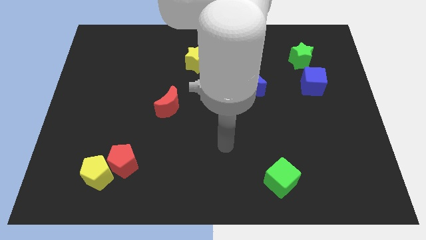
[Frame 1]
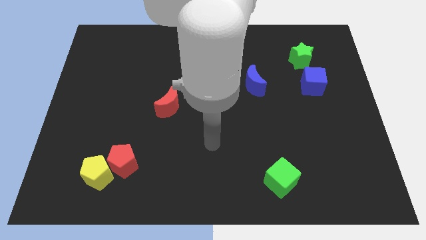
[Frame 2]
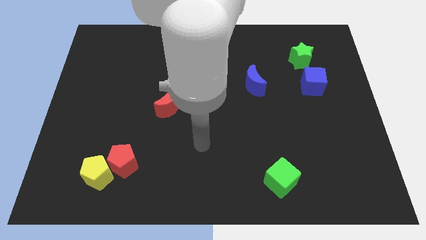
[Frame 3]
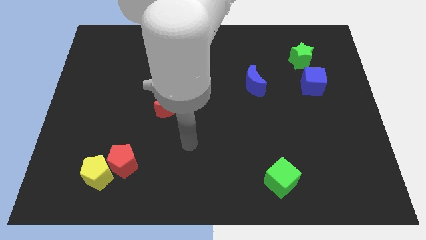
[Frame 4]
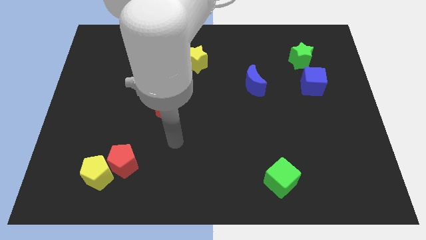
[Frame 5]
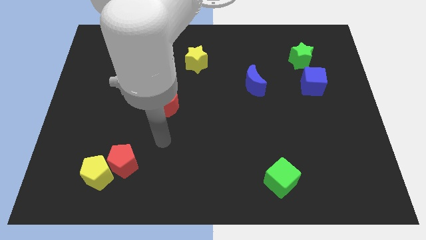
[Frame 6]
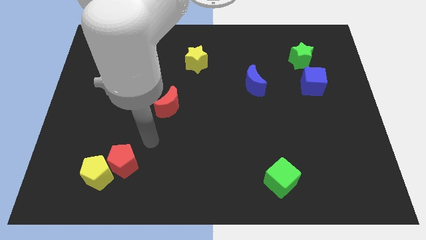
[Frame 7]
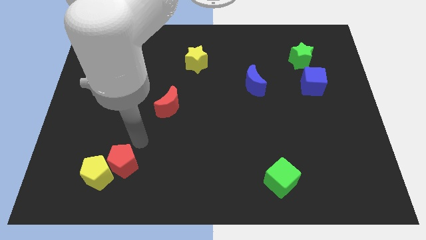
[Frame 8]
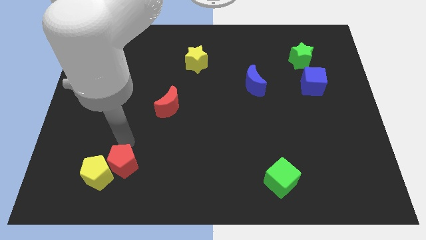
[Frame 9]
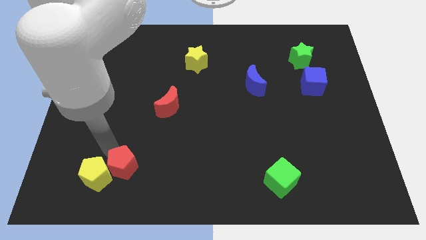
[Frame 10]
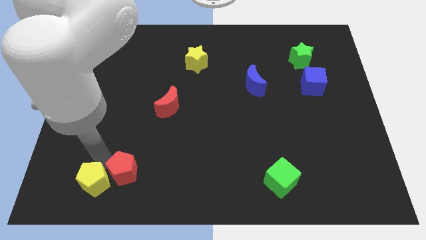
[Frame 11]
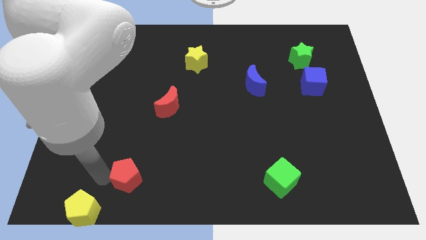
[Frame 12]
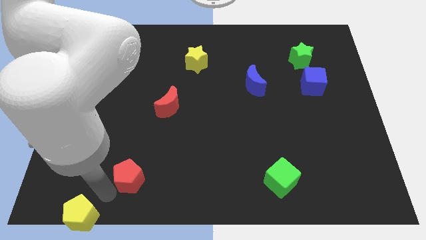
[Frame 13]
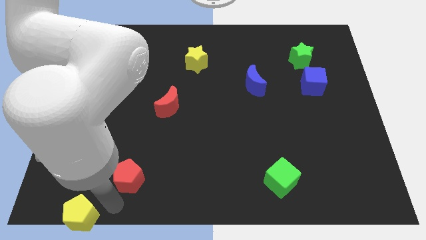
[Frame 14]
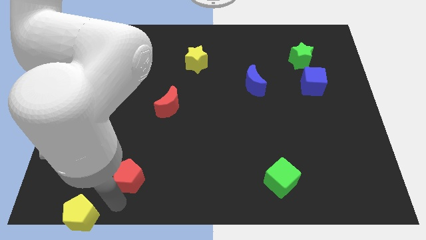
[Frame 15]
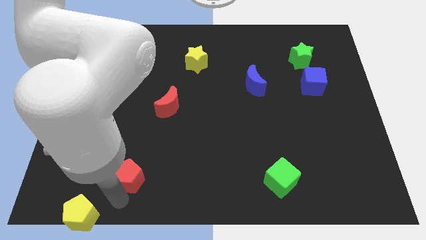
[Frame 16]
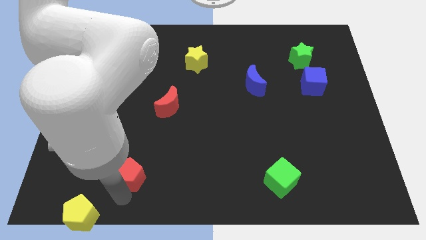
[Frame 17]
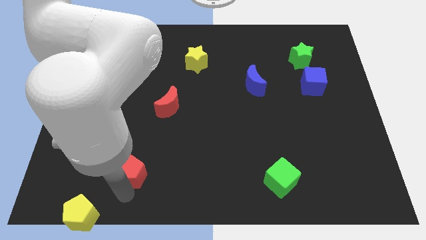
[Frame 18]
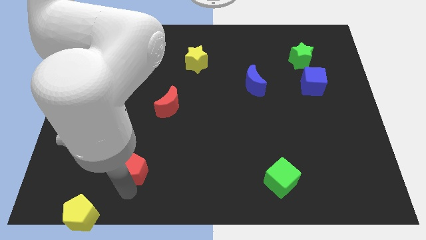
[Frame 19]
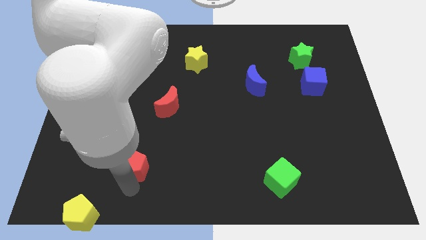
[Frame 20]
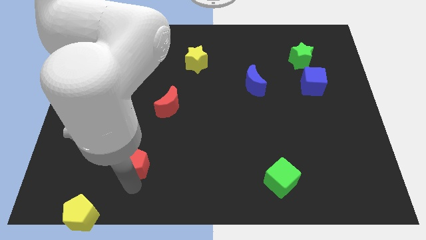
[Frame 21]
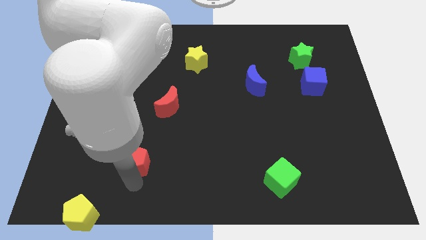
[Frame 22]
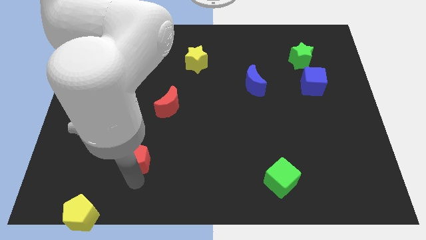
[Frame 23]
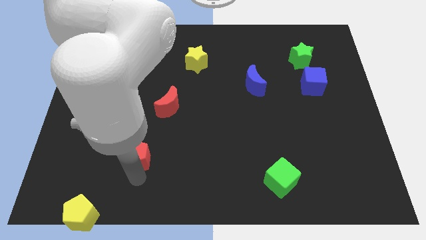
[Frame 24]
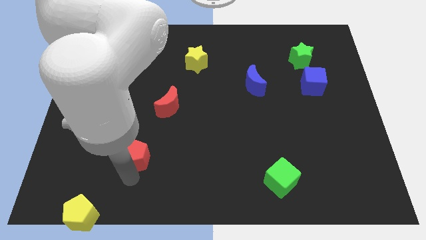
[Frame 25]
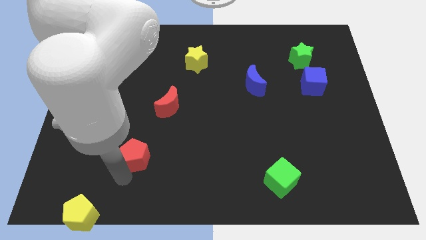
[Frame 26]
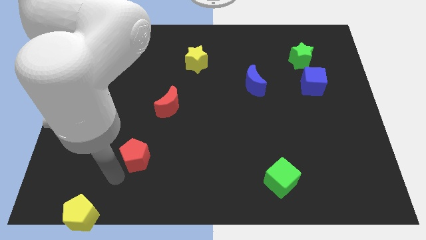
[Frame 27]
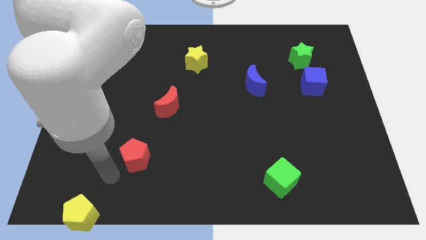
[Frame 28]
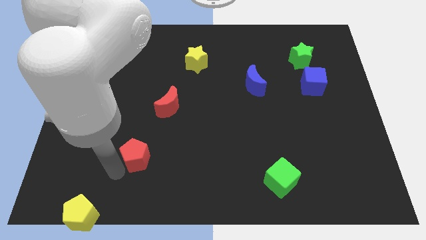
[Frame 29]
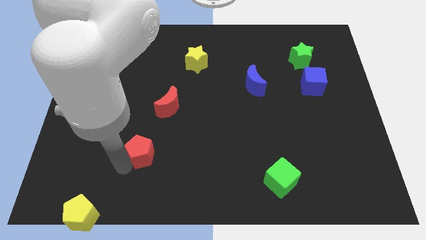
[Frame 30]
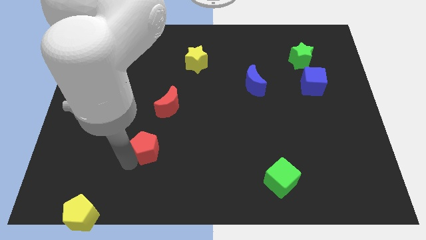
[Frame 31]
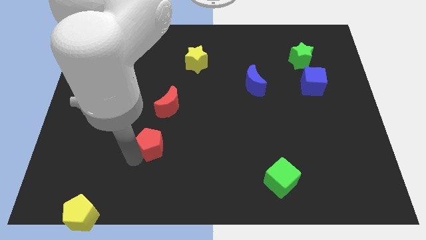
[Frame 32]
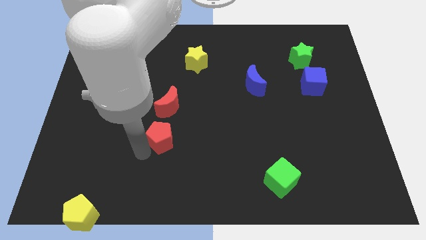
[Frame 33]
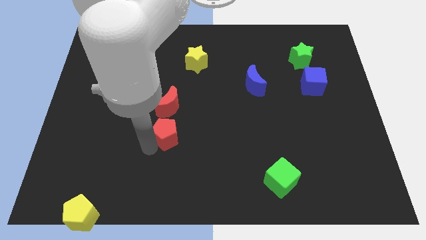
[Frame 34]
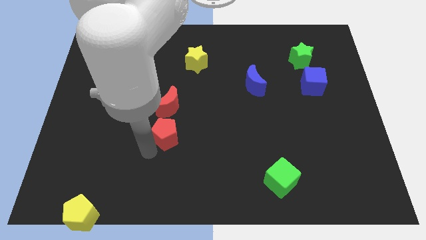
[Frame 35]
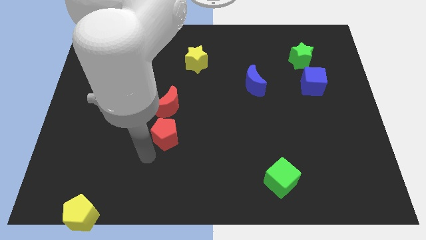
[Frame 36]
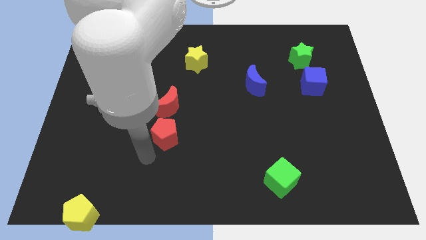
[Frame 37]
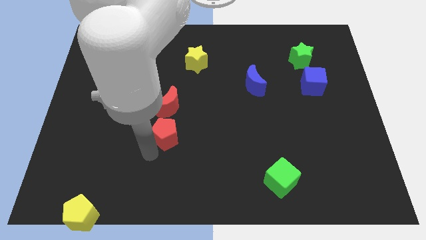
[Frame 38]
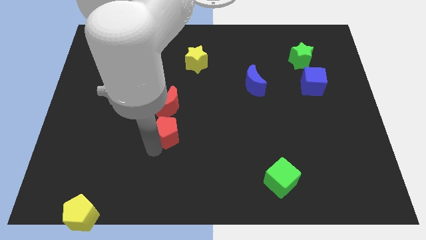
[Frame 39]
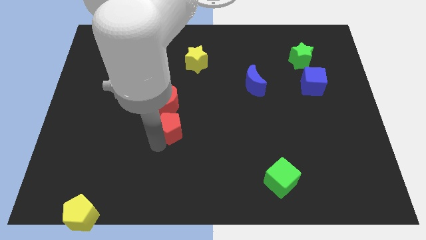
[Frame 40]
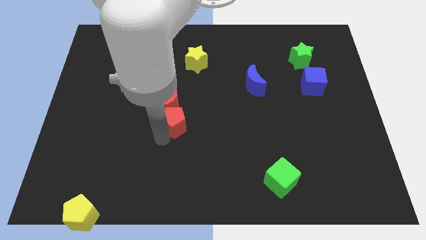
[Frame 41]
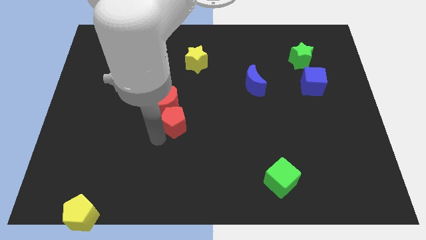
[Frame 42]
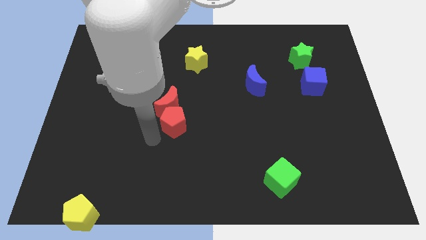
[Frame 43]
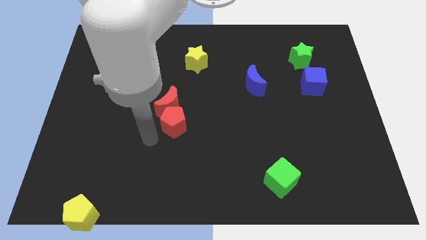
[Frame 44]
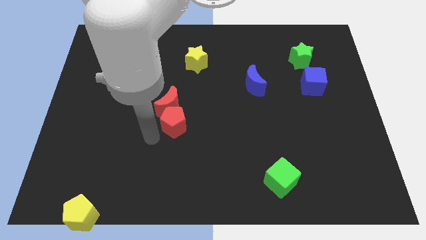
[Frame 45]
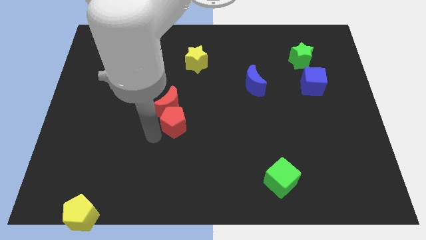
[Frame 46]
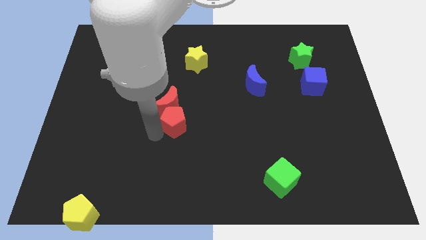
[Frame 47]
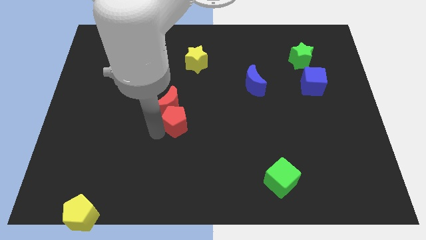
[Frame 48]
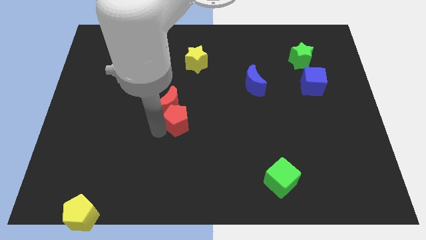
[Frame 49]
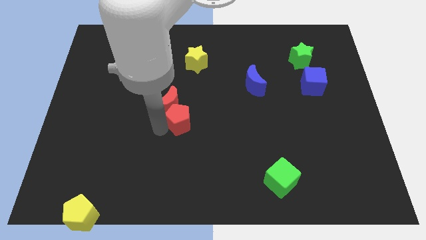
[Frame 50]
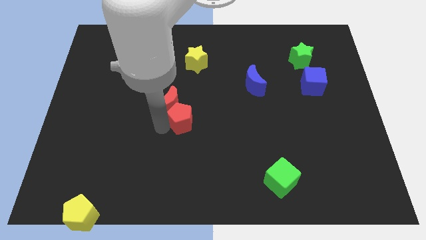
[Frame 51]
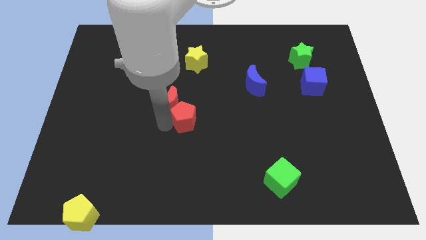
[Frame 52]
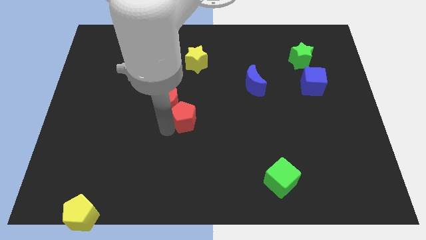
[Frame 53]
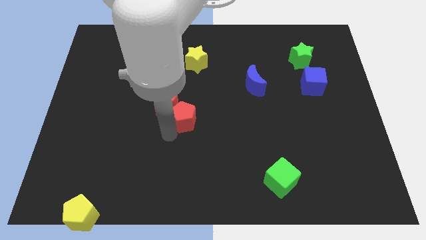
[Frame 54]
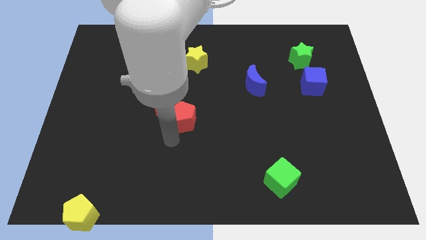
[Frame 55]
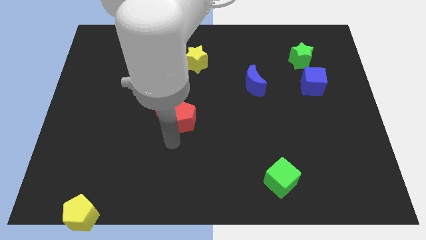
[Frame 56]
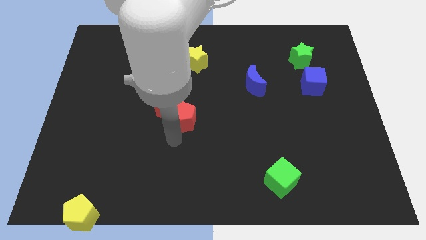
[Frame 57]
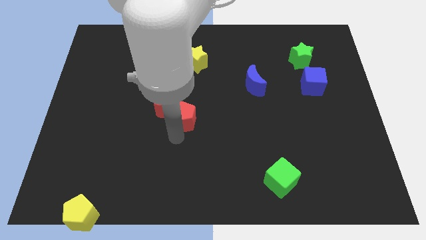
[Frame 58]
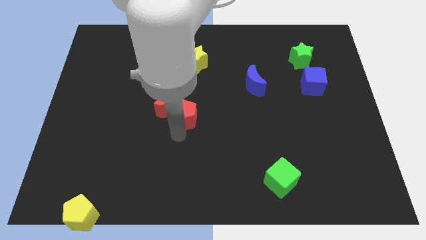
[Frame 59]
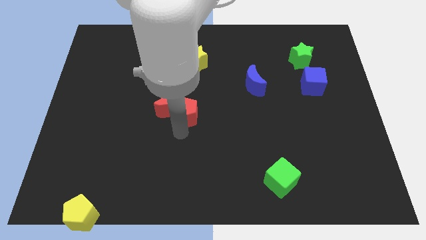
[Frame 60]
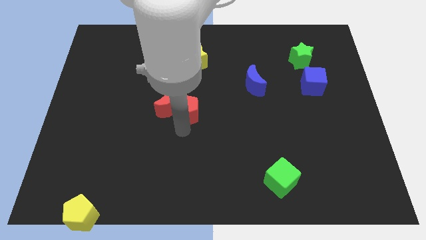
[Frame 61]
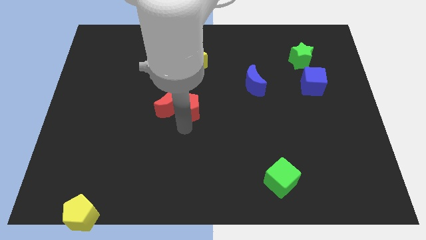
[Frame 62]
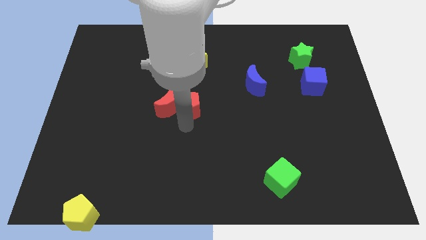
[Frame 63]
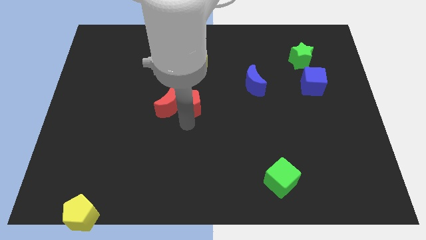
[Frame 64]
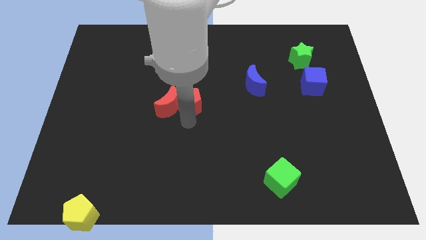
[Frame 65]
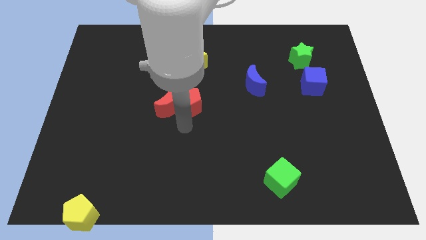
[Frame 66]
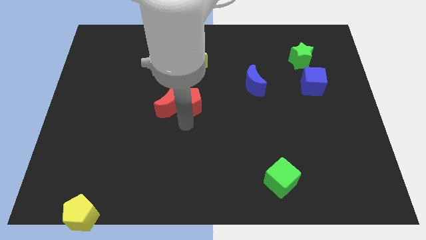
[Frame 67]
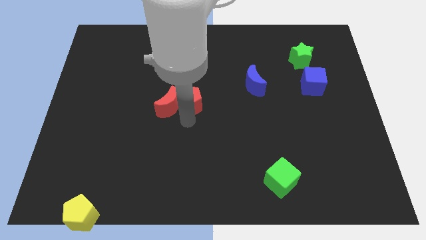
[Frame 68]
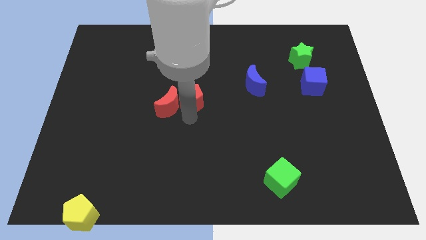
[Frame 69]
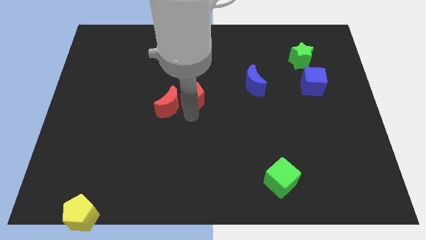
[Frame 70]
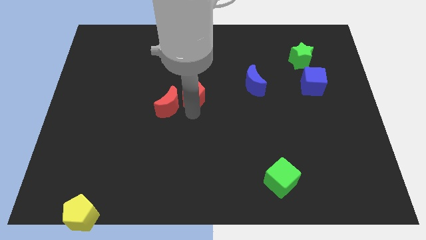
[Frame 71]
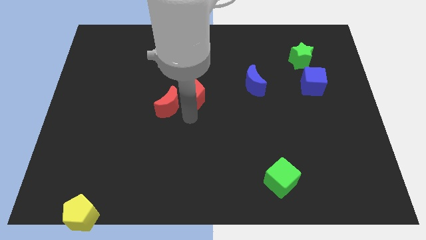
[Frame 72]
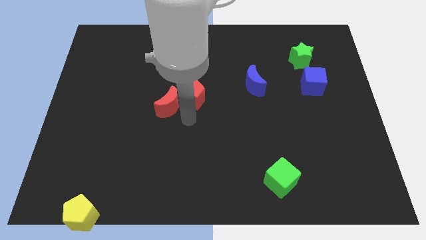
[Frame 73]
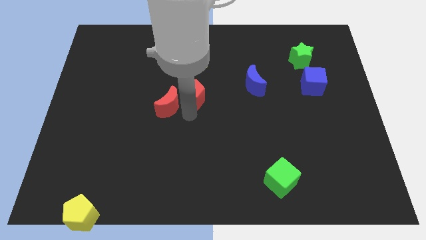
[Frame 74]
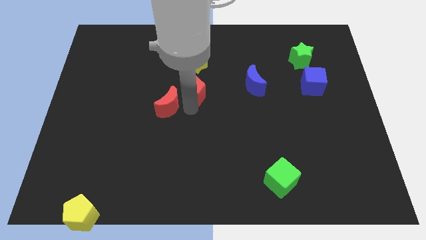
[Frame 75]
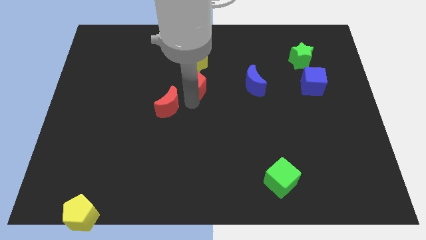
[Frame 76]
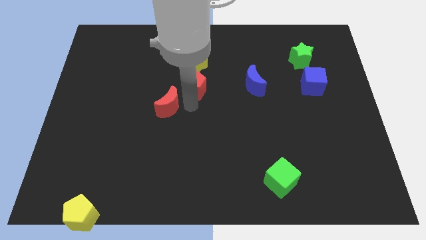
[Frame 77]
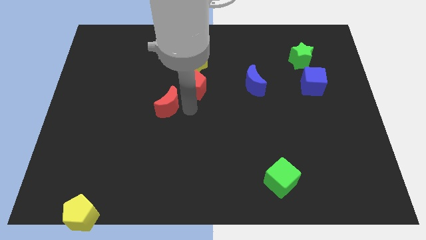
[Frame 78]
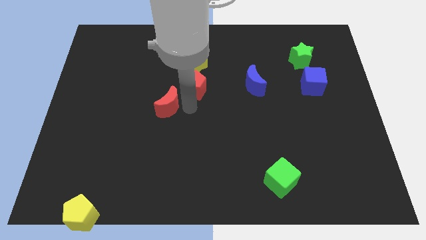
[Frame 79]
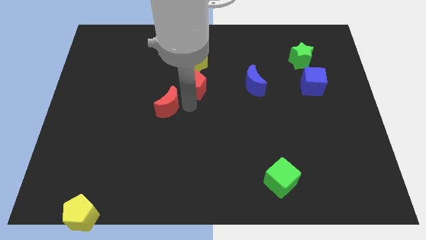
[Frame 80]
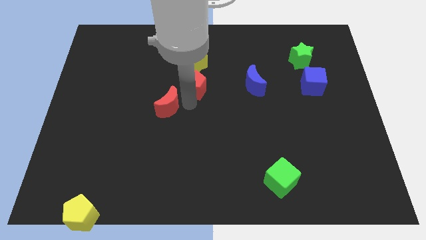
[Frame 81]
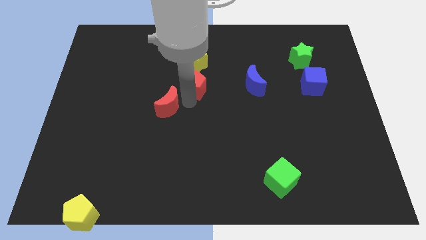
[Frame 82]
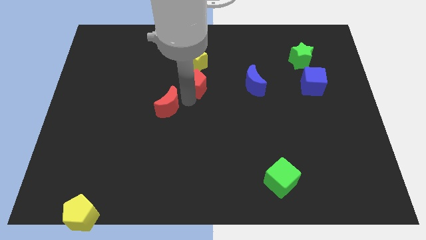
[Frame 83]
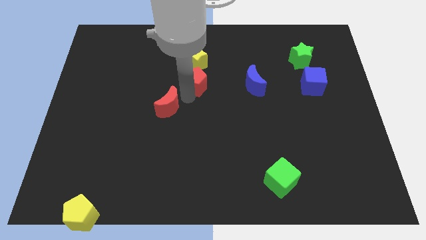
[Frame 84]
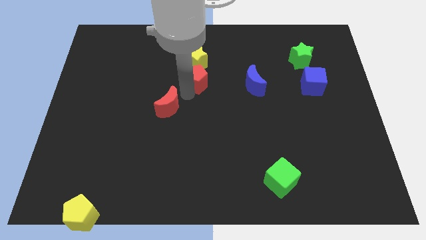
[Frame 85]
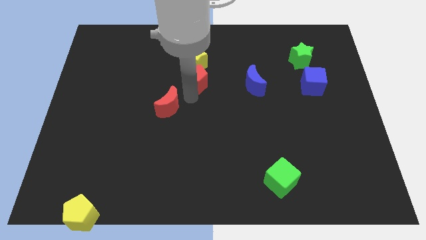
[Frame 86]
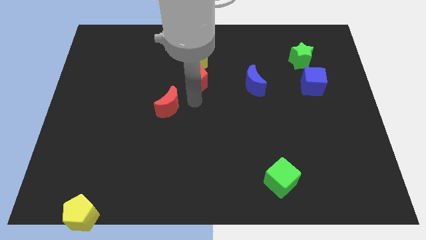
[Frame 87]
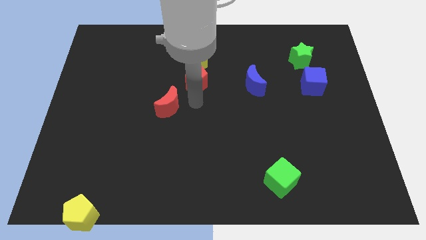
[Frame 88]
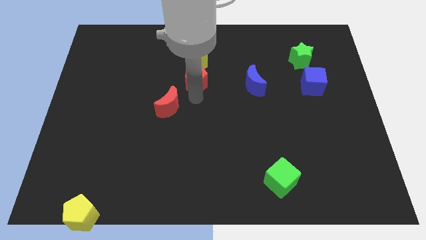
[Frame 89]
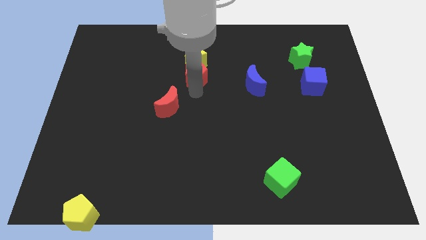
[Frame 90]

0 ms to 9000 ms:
move the red pentagon next to the yellow star
